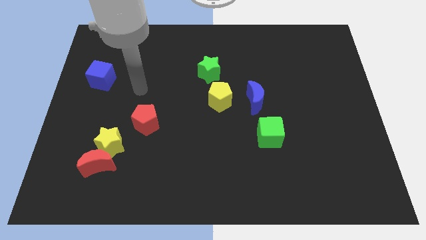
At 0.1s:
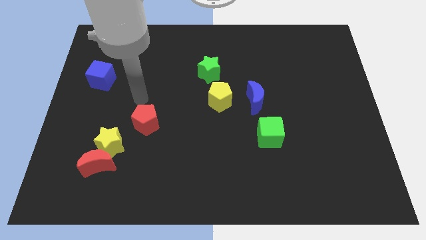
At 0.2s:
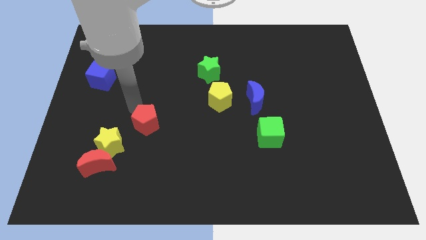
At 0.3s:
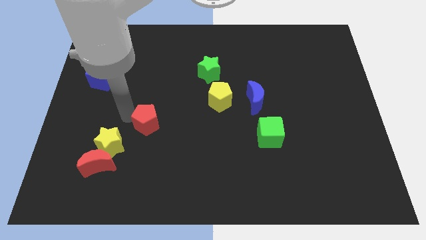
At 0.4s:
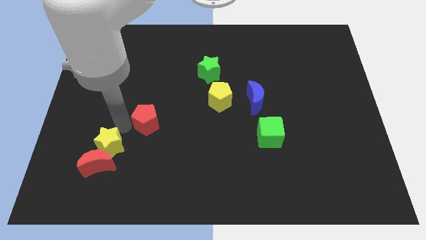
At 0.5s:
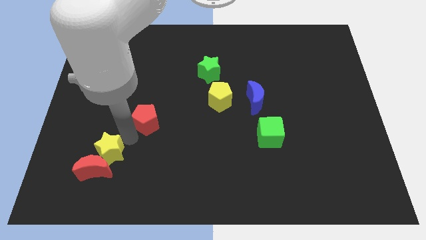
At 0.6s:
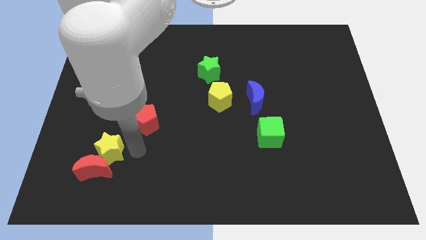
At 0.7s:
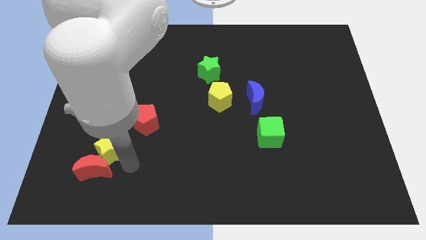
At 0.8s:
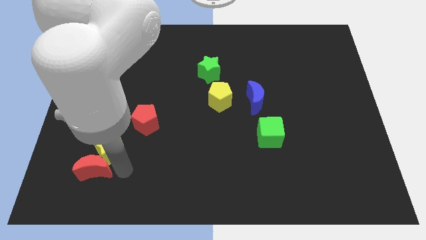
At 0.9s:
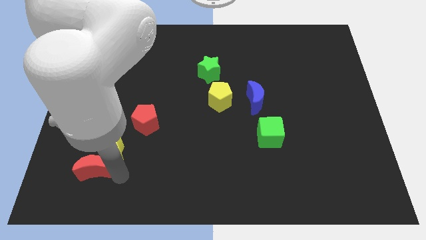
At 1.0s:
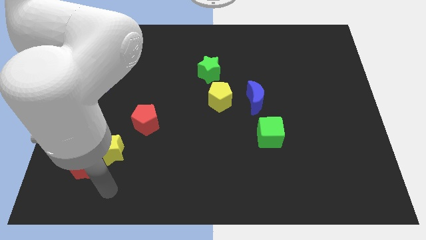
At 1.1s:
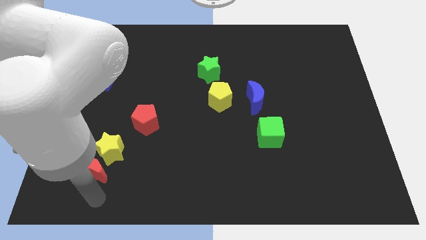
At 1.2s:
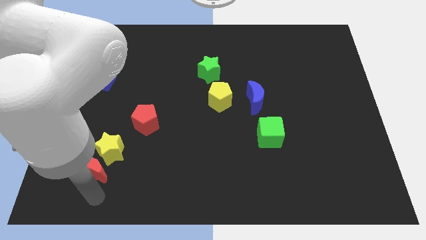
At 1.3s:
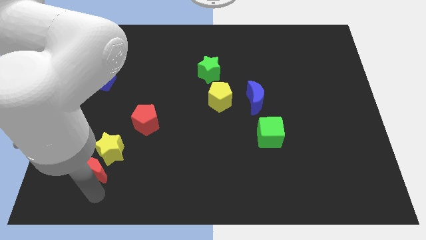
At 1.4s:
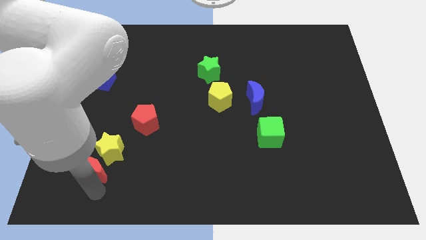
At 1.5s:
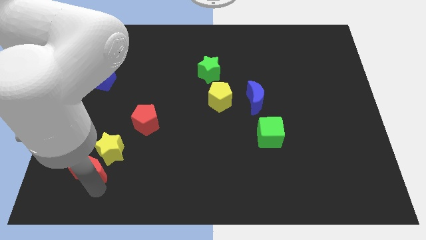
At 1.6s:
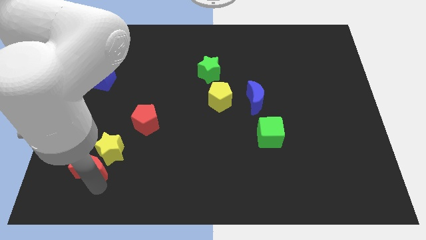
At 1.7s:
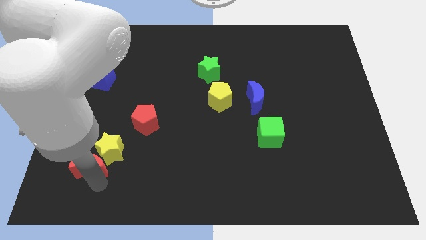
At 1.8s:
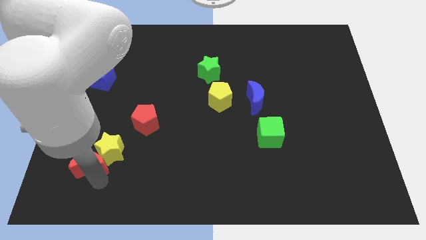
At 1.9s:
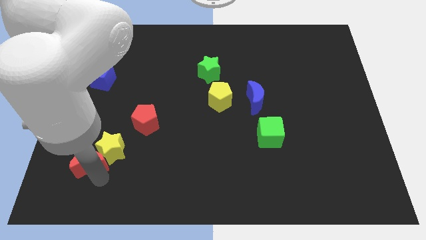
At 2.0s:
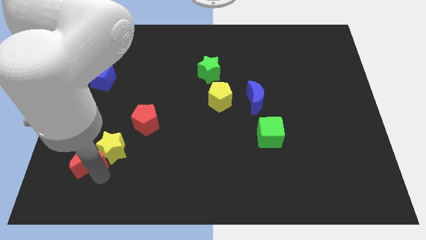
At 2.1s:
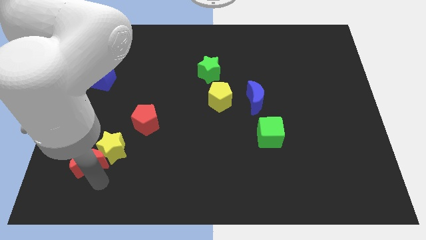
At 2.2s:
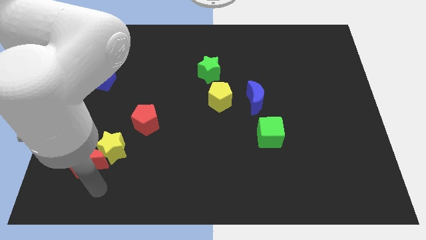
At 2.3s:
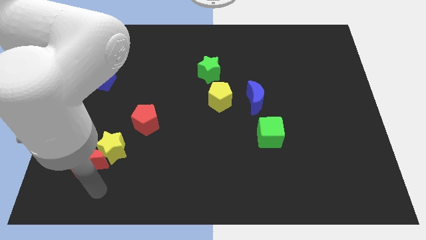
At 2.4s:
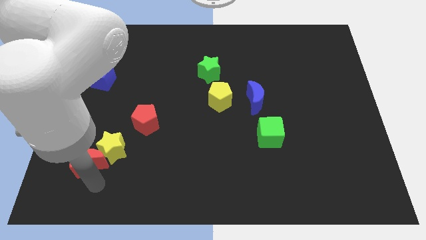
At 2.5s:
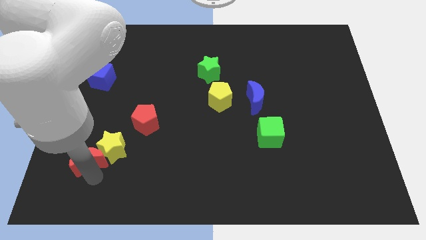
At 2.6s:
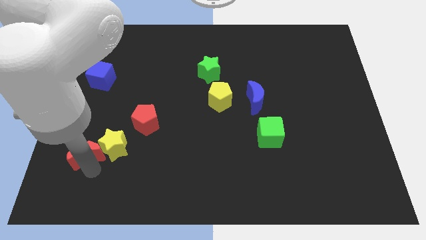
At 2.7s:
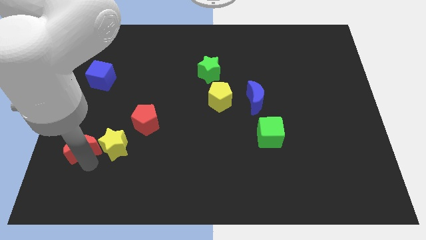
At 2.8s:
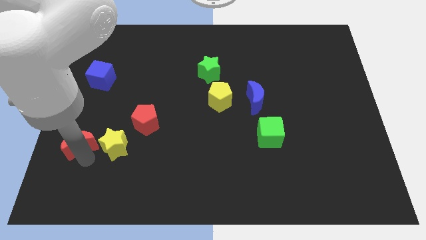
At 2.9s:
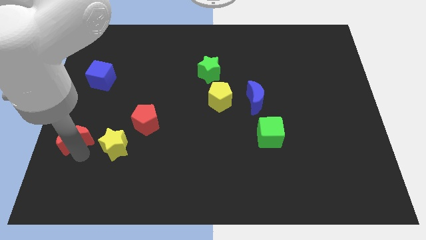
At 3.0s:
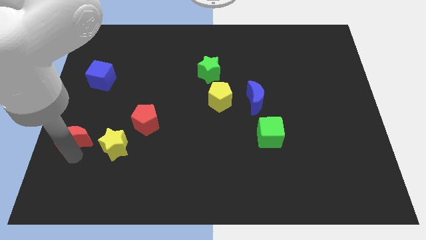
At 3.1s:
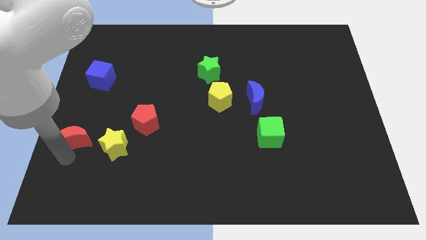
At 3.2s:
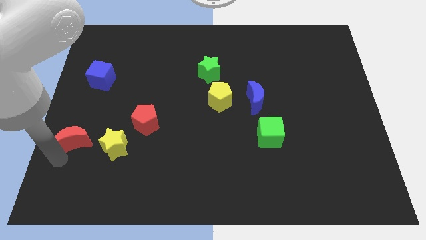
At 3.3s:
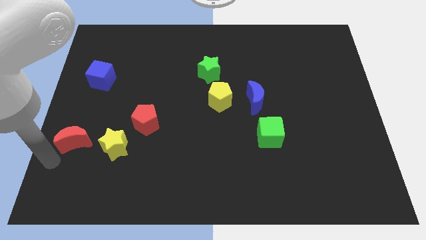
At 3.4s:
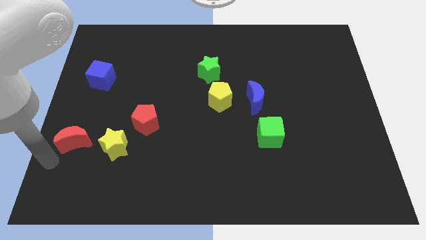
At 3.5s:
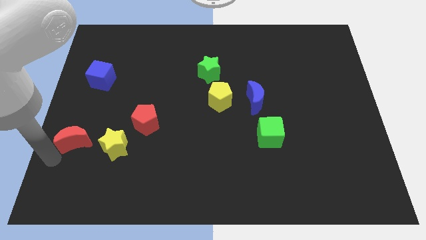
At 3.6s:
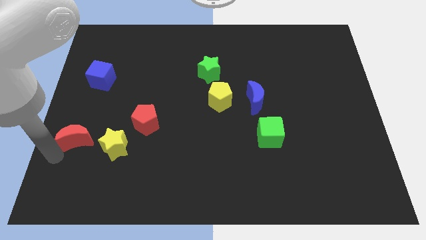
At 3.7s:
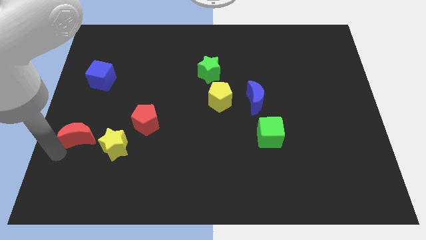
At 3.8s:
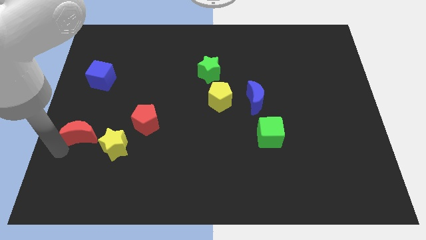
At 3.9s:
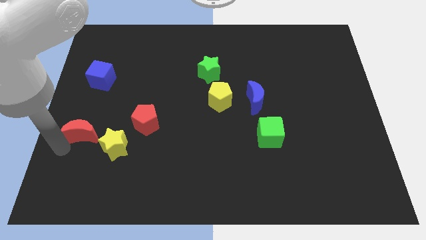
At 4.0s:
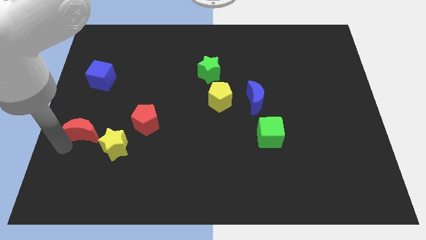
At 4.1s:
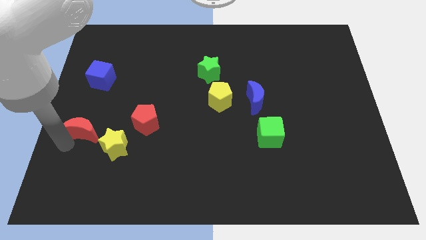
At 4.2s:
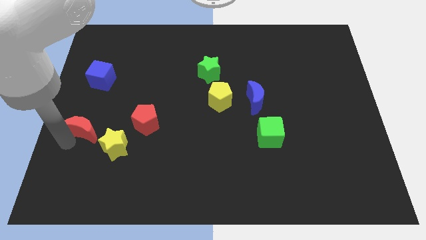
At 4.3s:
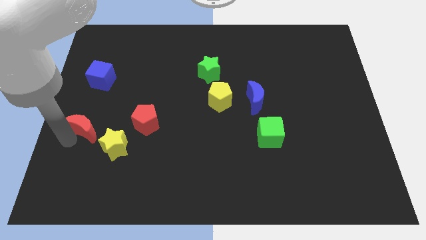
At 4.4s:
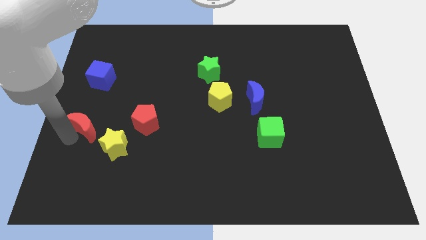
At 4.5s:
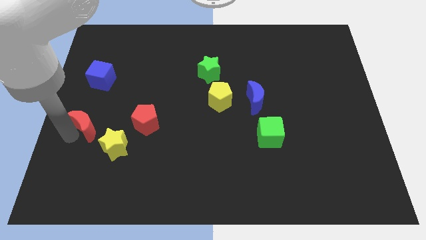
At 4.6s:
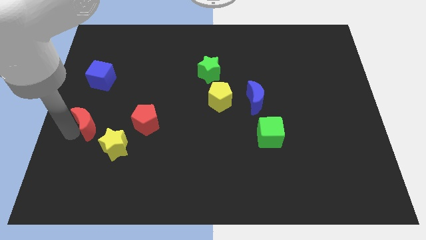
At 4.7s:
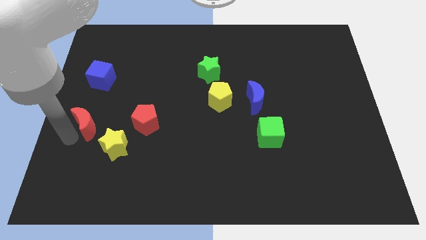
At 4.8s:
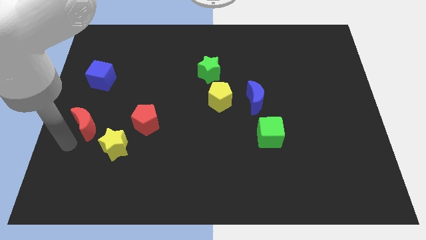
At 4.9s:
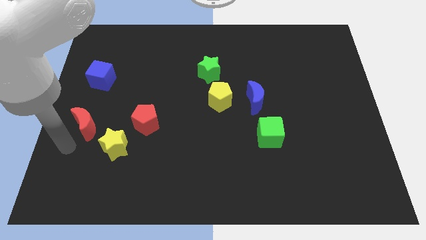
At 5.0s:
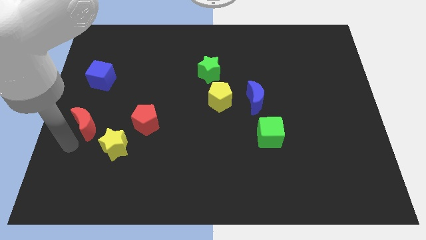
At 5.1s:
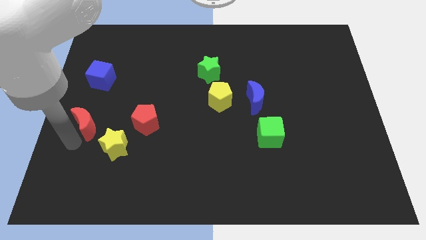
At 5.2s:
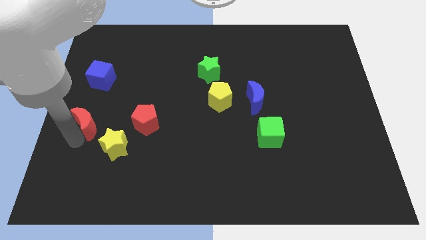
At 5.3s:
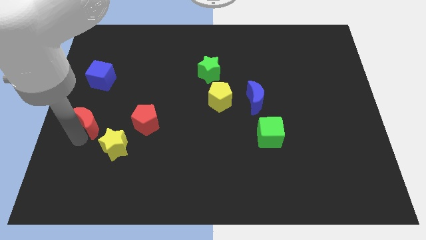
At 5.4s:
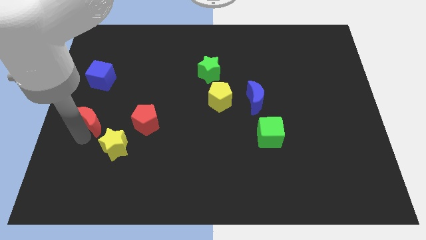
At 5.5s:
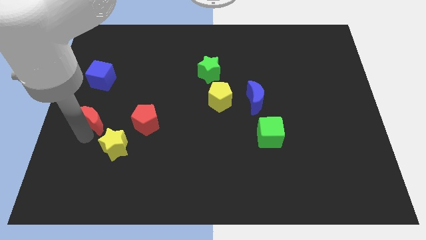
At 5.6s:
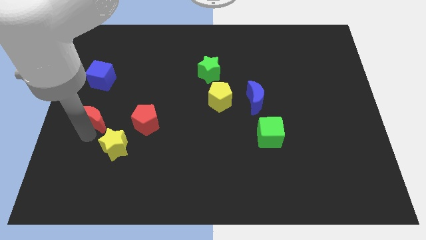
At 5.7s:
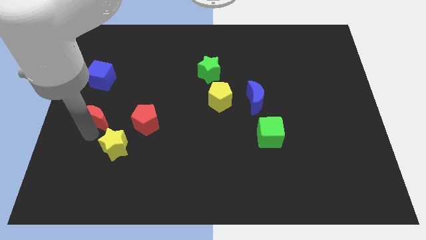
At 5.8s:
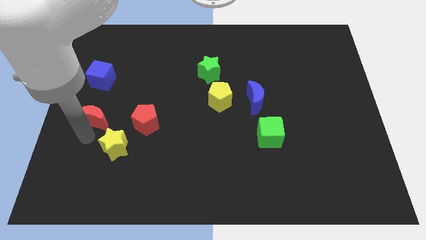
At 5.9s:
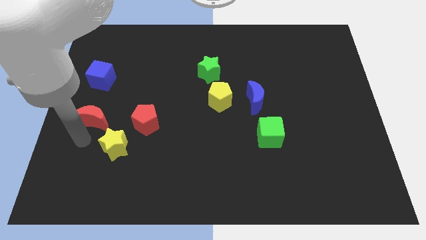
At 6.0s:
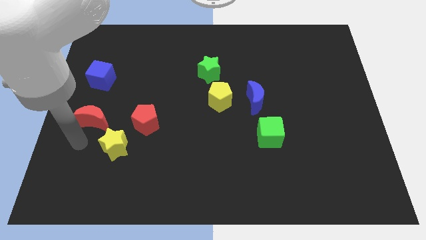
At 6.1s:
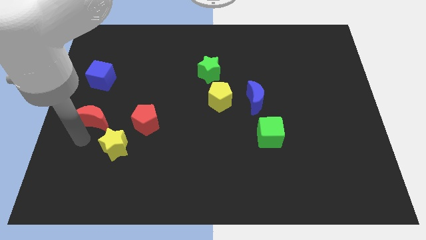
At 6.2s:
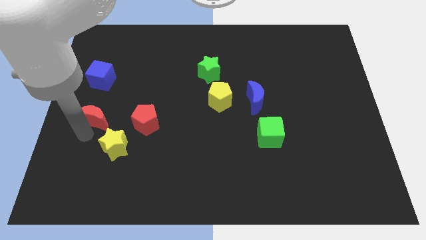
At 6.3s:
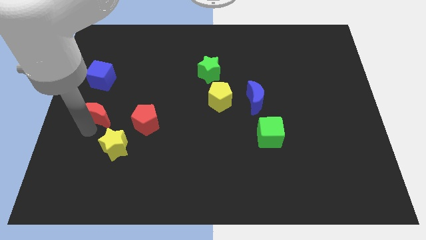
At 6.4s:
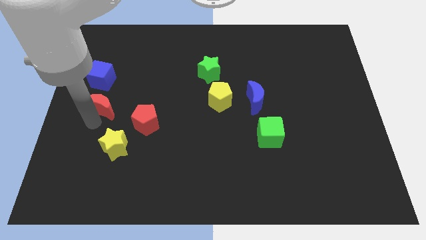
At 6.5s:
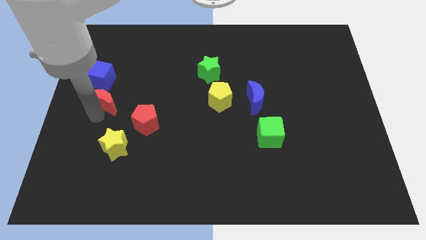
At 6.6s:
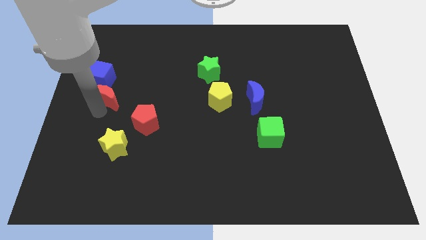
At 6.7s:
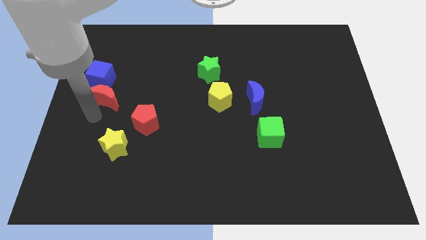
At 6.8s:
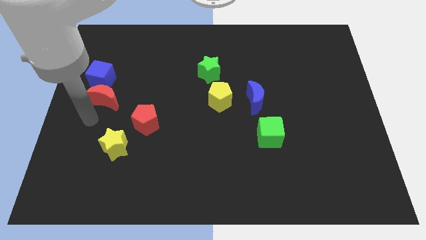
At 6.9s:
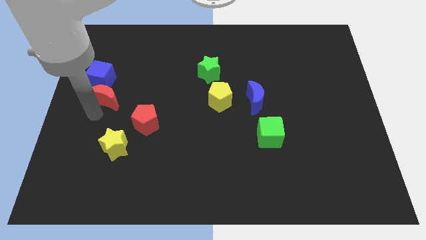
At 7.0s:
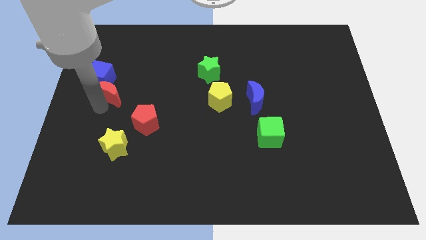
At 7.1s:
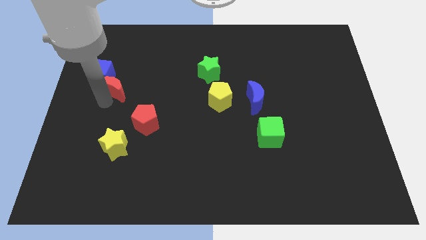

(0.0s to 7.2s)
slide the red moon upwards

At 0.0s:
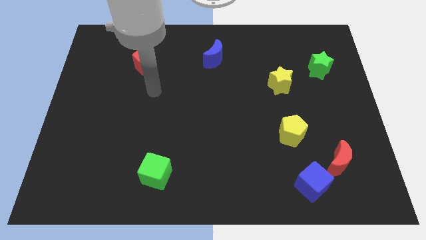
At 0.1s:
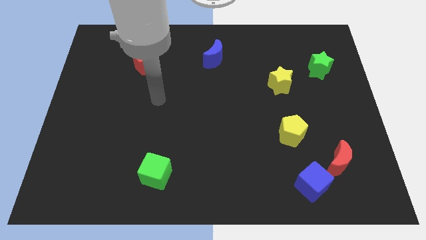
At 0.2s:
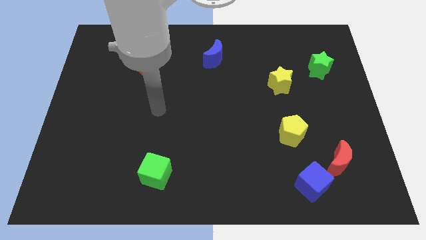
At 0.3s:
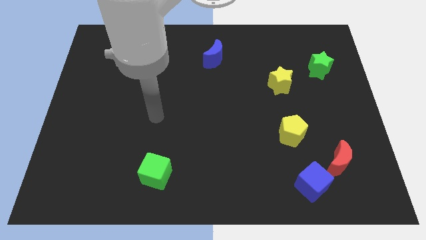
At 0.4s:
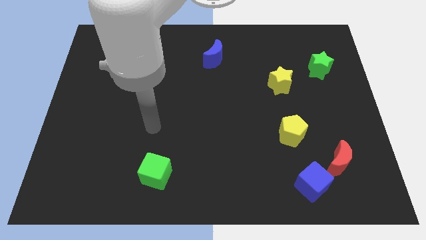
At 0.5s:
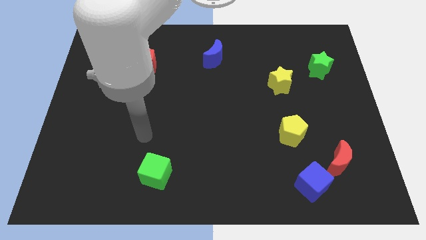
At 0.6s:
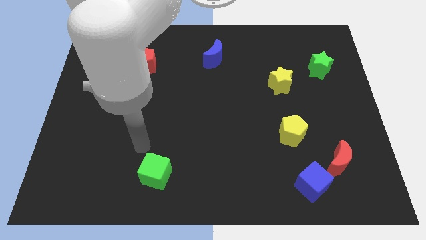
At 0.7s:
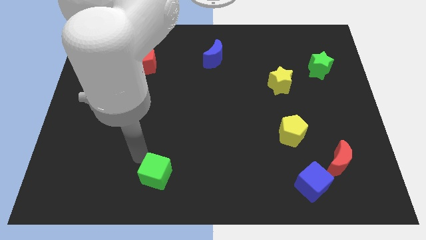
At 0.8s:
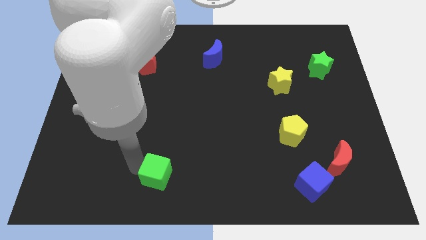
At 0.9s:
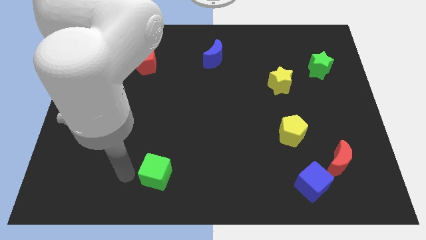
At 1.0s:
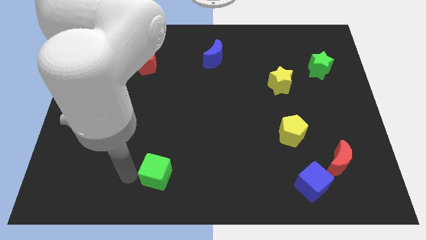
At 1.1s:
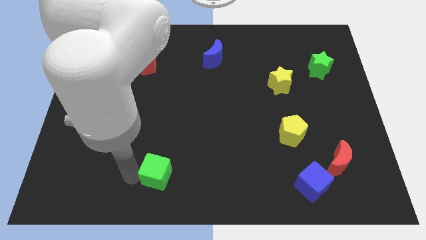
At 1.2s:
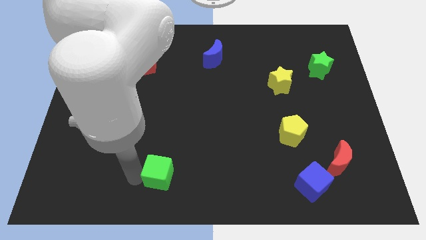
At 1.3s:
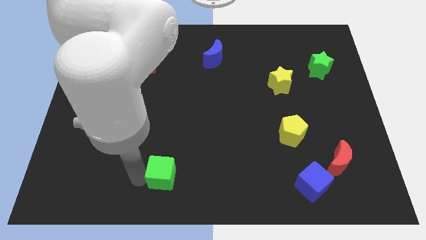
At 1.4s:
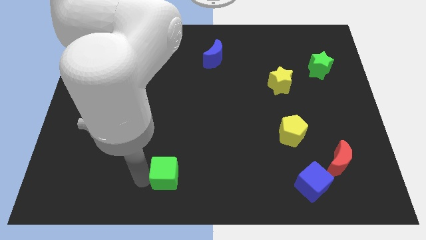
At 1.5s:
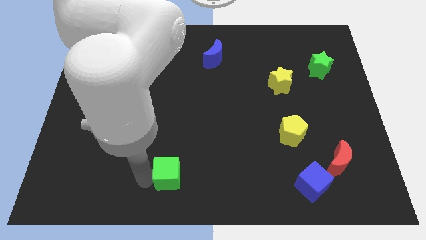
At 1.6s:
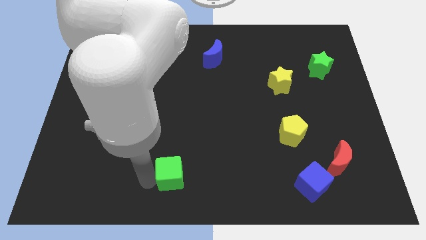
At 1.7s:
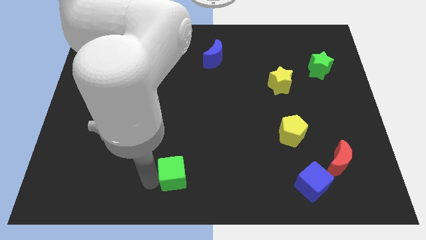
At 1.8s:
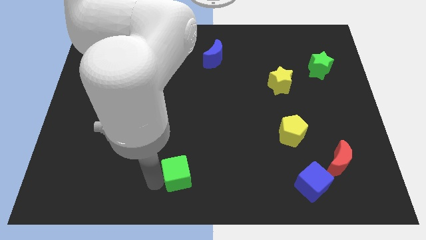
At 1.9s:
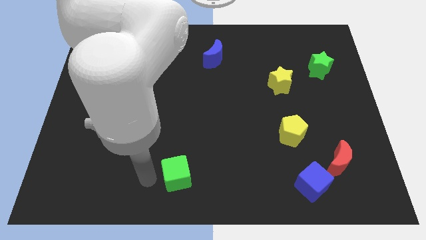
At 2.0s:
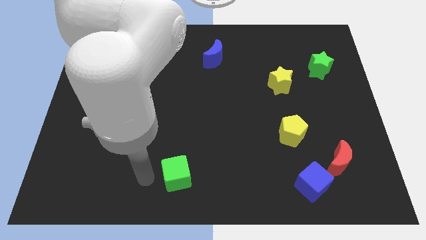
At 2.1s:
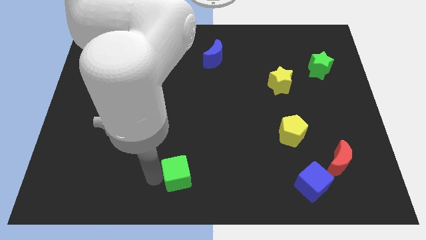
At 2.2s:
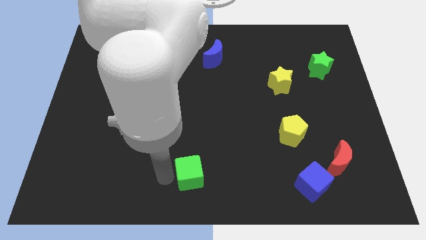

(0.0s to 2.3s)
slightly slide the green cube to the right
